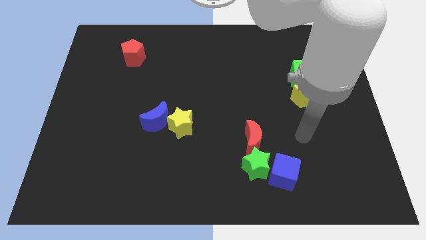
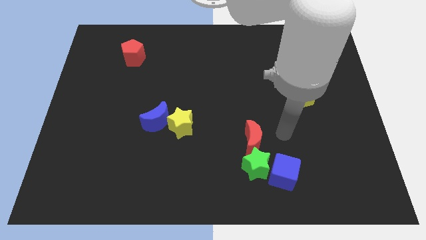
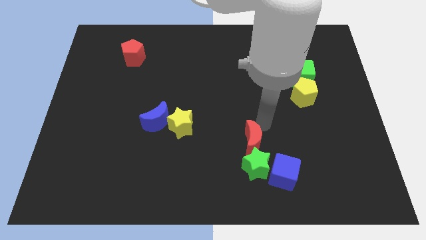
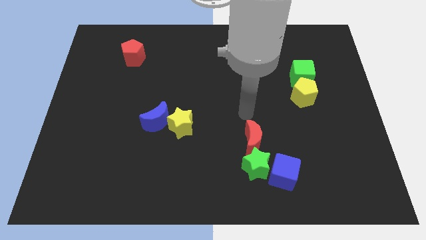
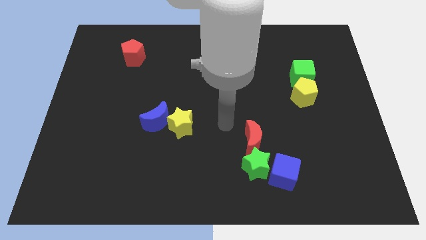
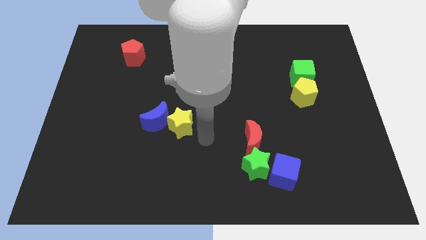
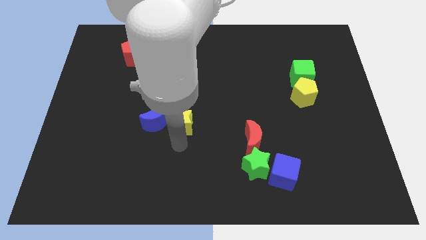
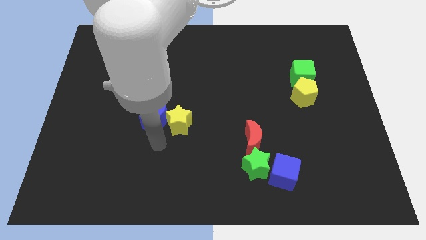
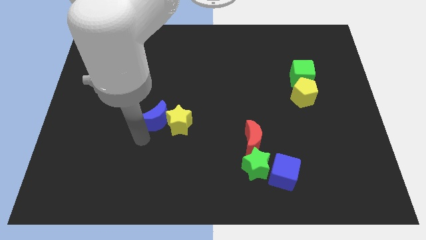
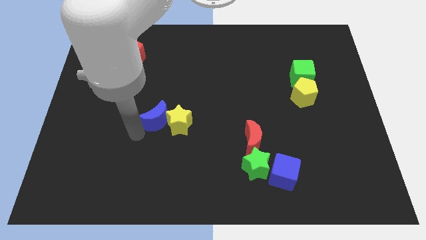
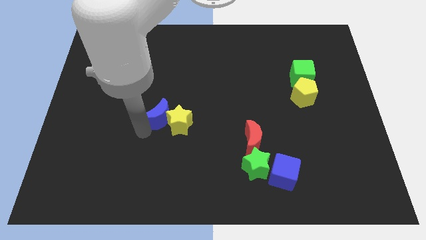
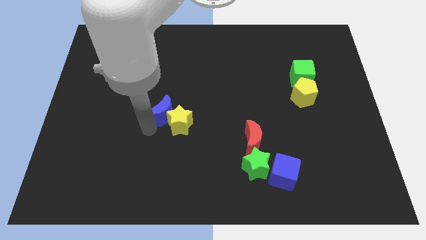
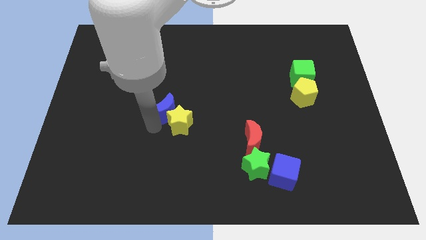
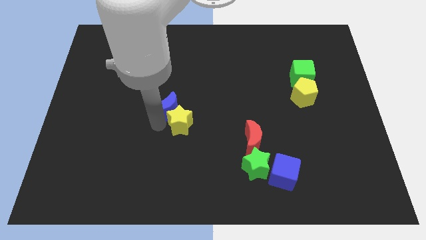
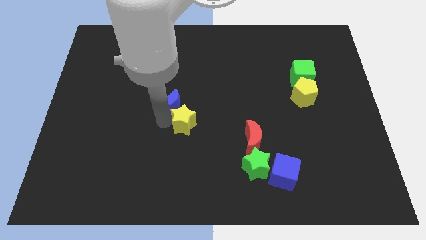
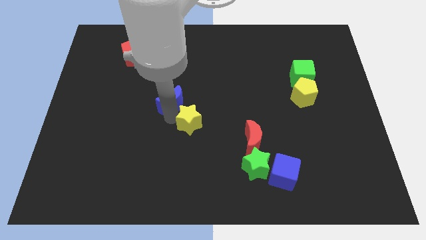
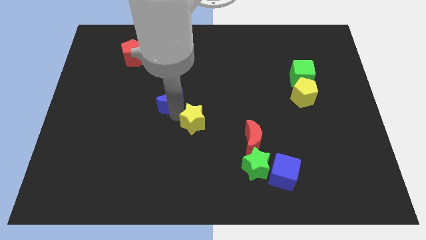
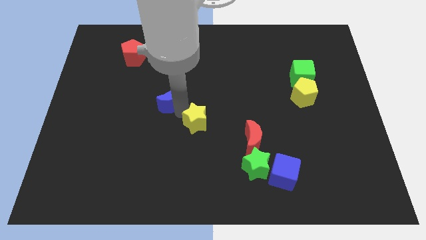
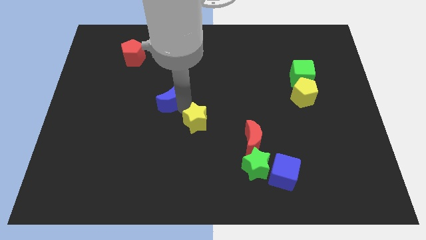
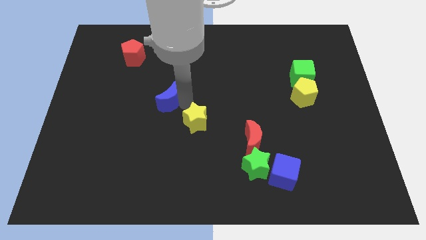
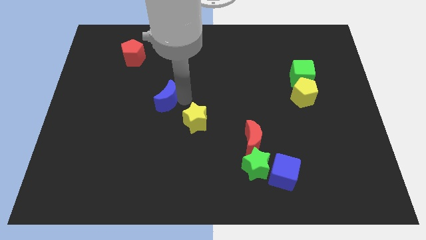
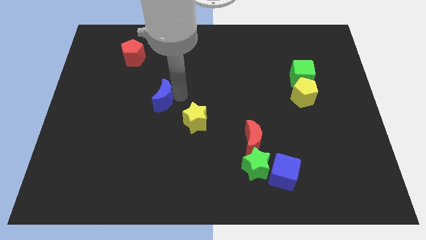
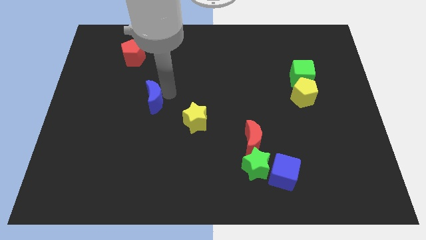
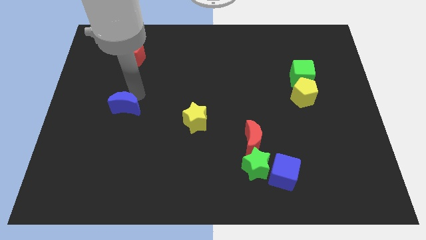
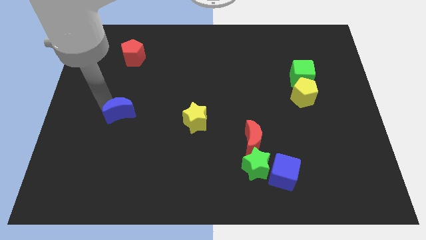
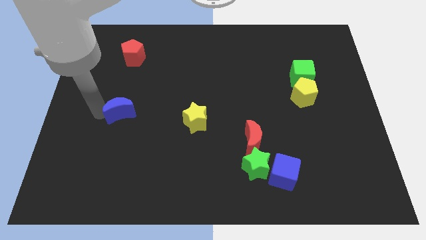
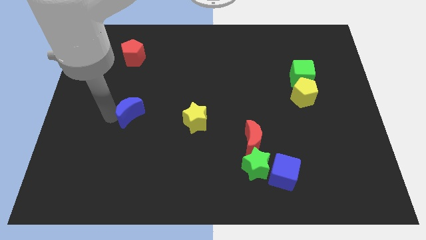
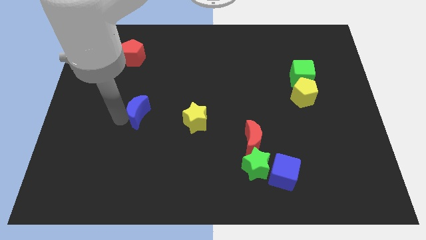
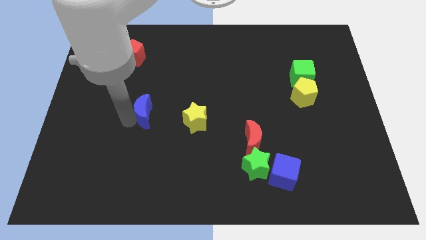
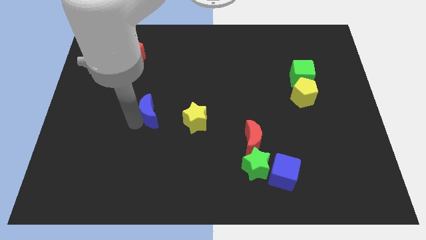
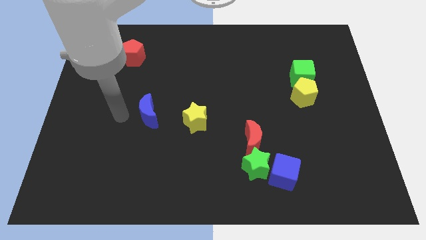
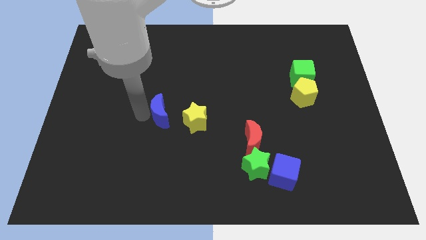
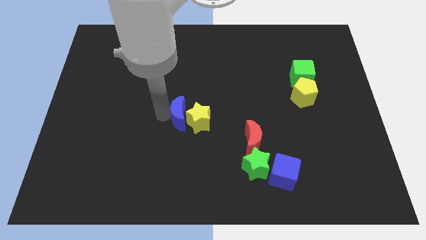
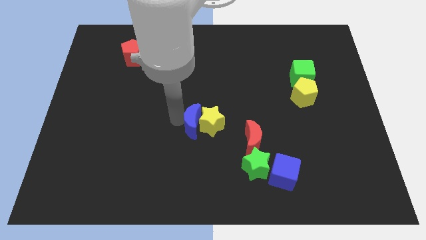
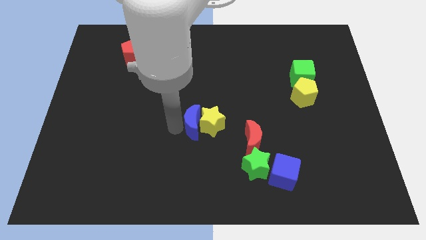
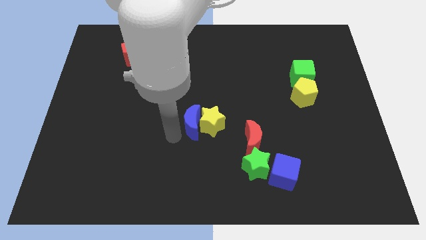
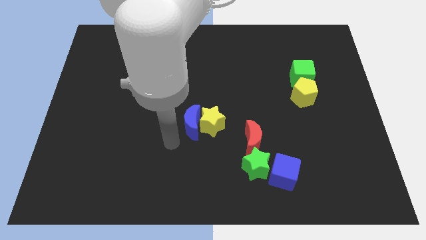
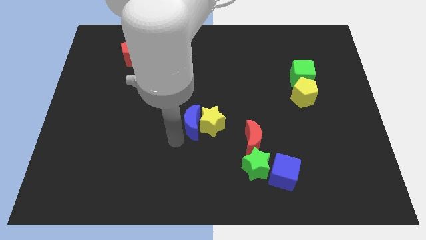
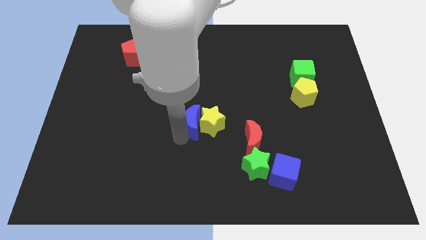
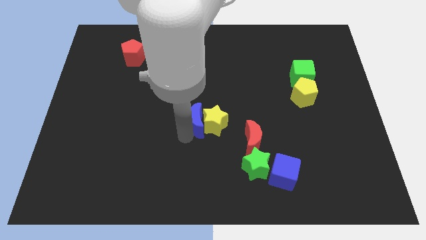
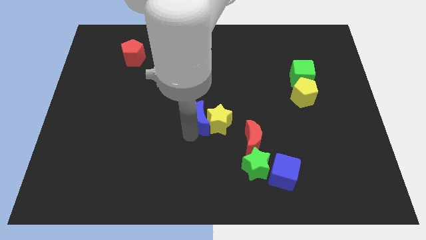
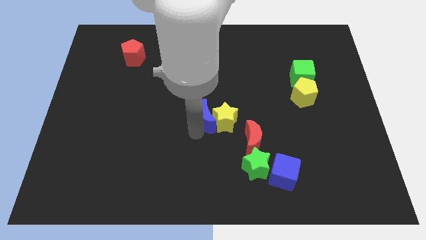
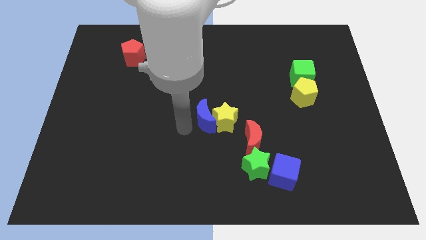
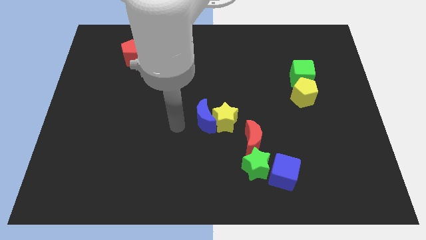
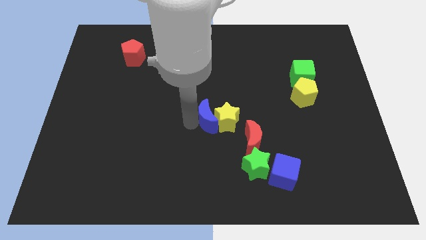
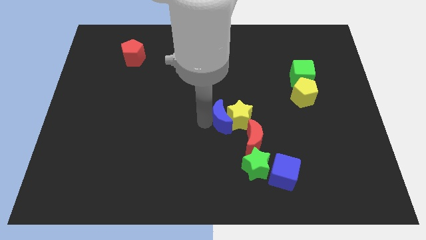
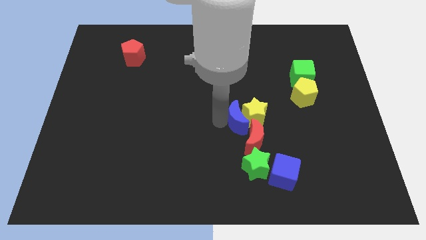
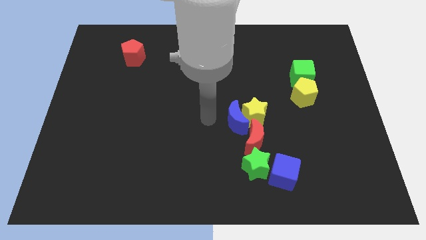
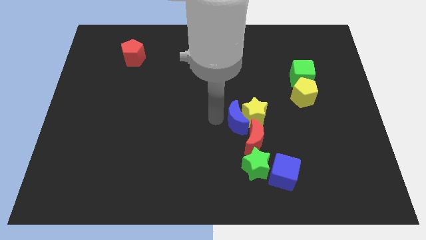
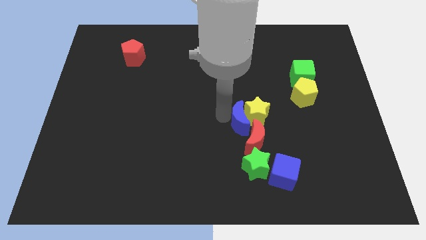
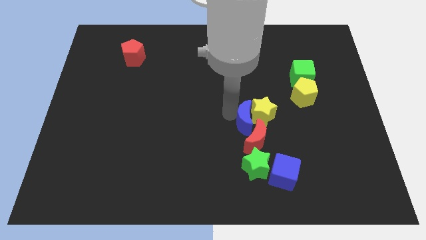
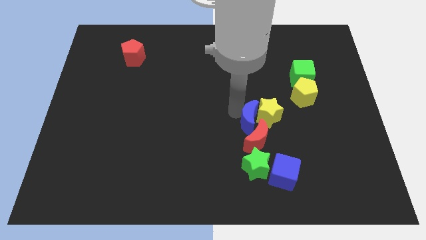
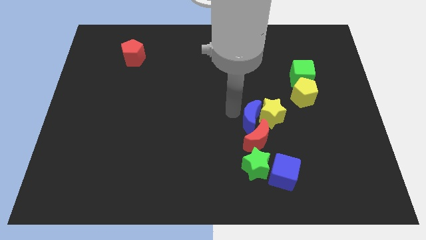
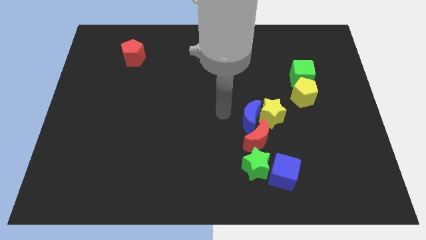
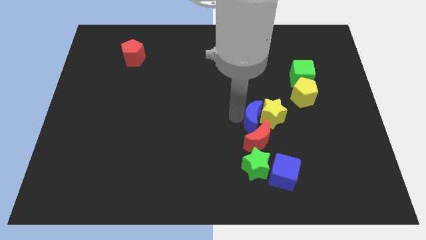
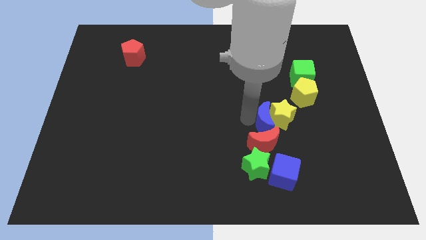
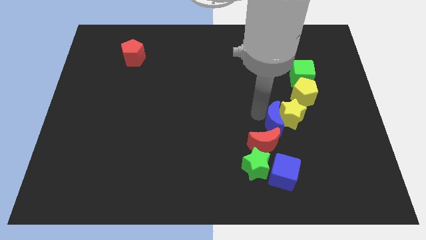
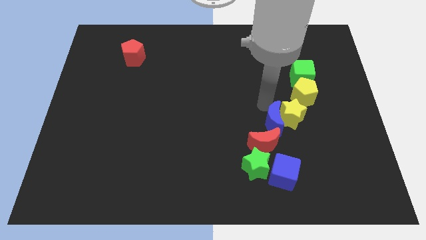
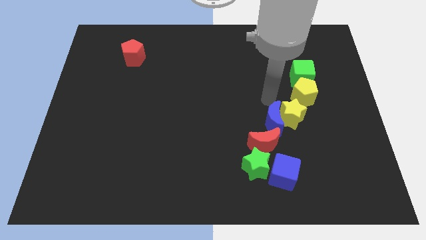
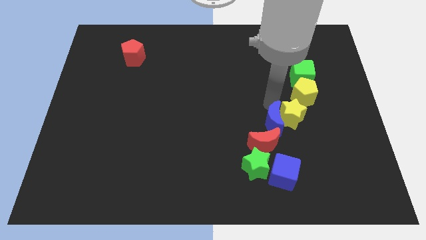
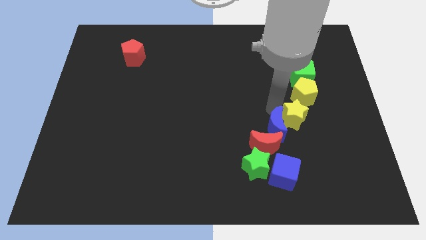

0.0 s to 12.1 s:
push the blue moon to the top right side of the green star
